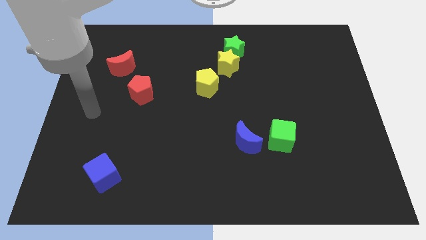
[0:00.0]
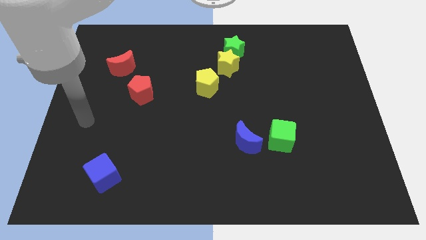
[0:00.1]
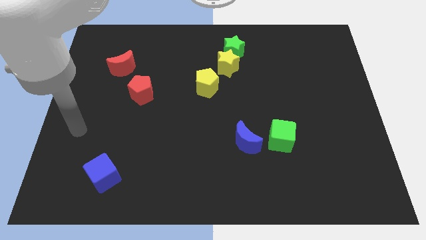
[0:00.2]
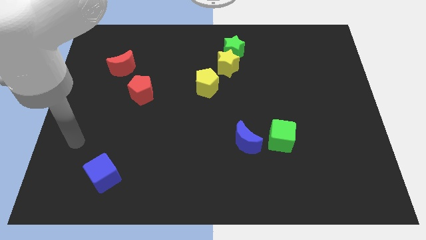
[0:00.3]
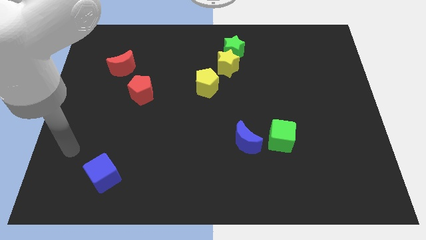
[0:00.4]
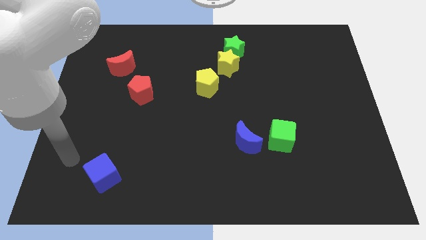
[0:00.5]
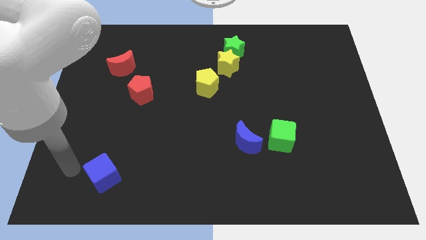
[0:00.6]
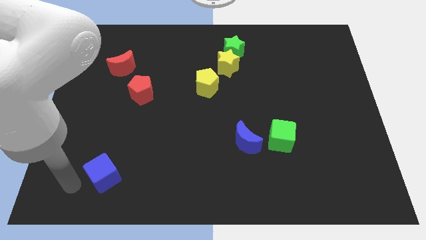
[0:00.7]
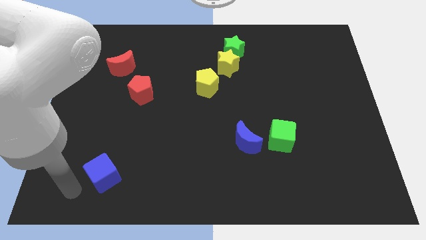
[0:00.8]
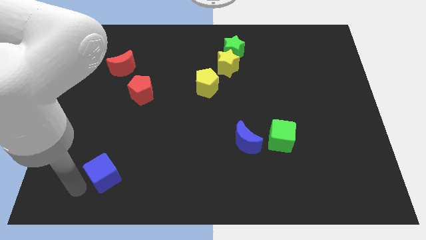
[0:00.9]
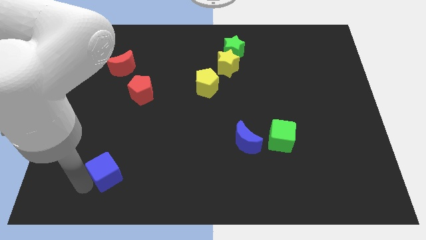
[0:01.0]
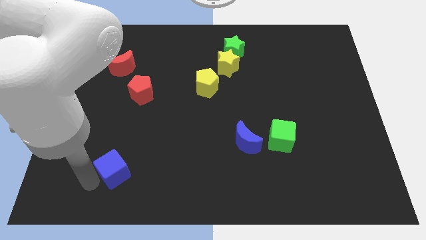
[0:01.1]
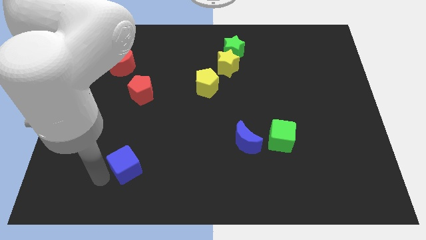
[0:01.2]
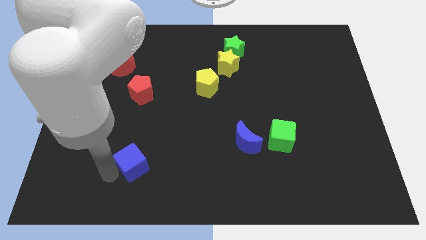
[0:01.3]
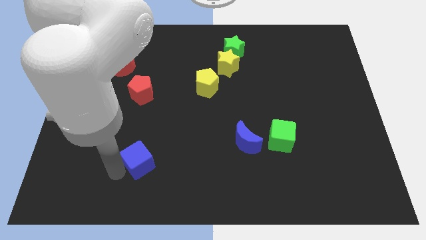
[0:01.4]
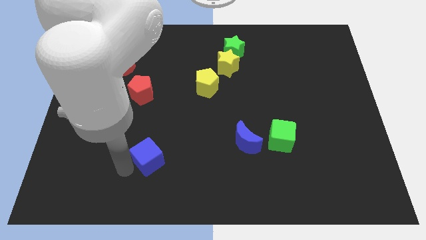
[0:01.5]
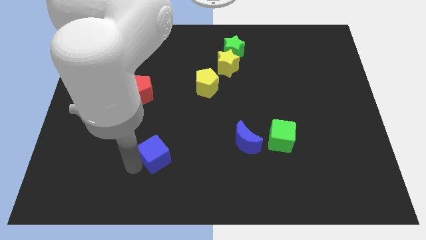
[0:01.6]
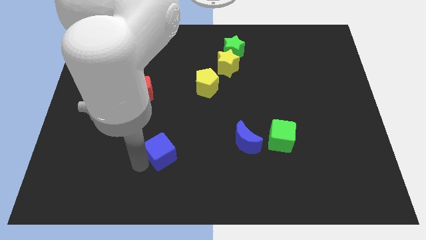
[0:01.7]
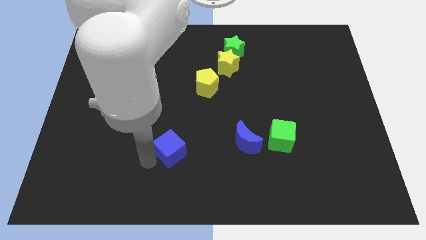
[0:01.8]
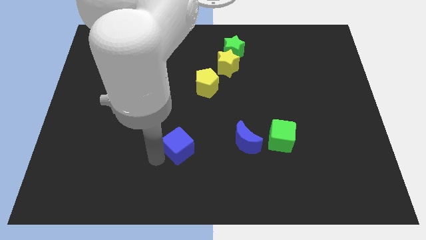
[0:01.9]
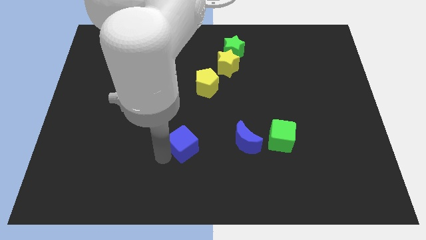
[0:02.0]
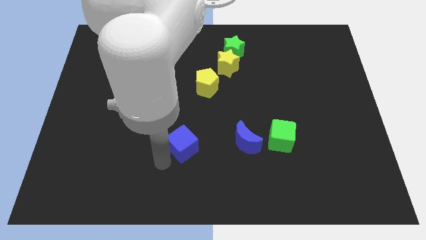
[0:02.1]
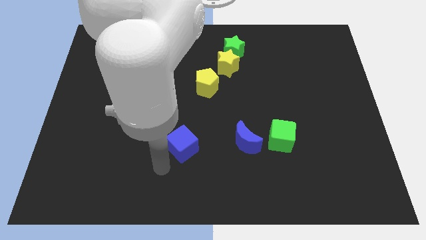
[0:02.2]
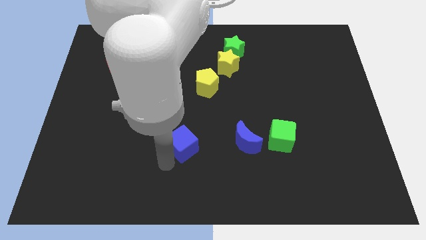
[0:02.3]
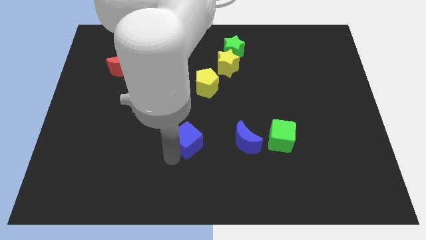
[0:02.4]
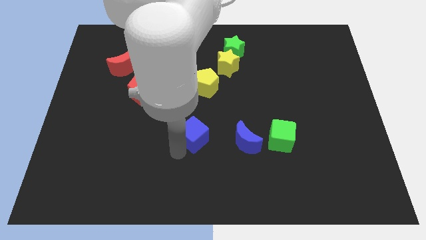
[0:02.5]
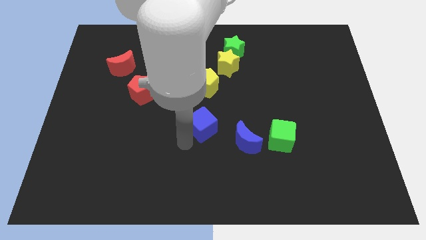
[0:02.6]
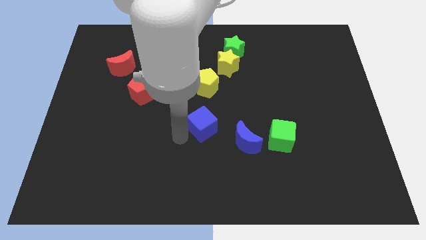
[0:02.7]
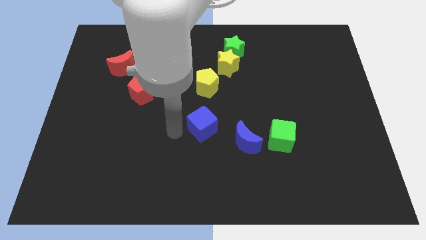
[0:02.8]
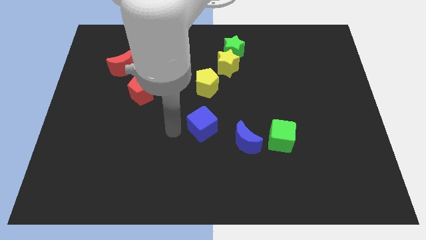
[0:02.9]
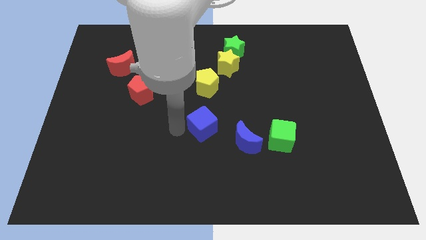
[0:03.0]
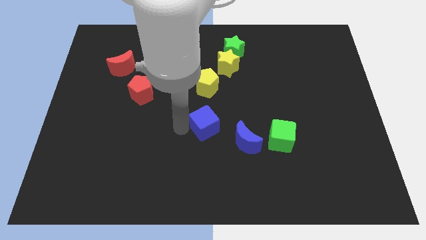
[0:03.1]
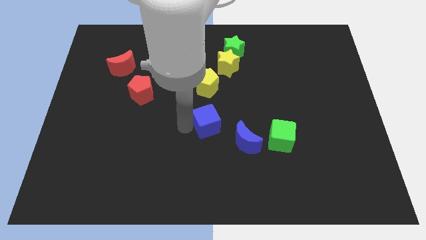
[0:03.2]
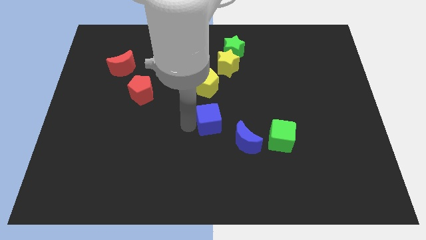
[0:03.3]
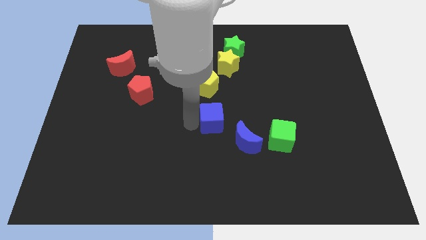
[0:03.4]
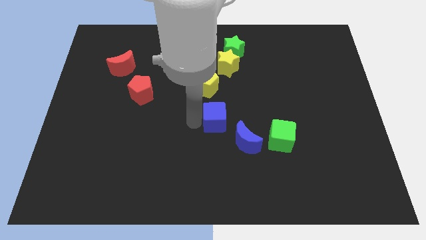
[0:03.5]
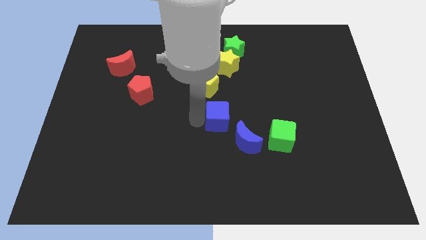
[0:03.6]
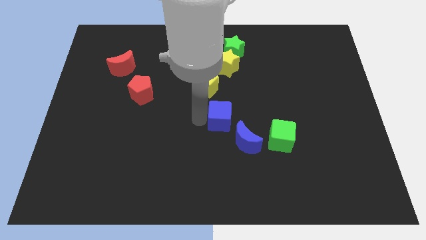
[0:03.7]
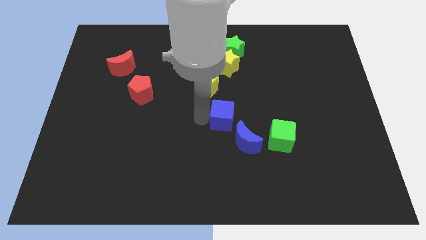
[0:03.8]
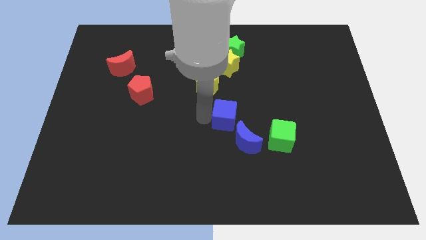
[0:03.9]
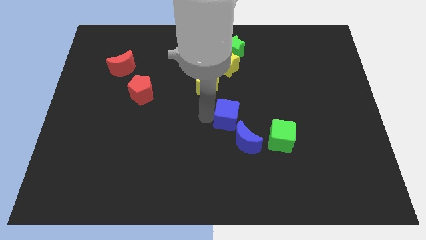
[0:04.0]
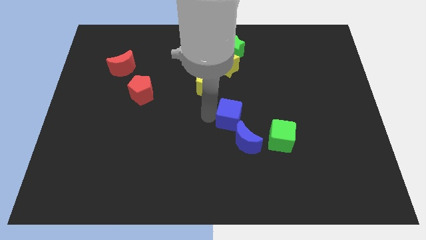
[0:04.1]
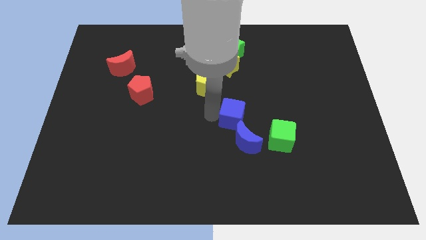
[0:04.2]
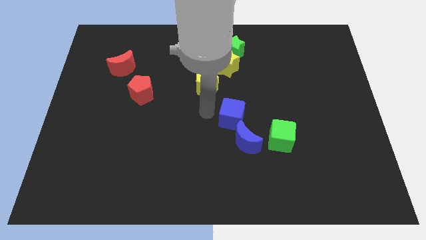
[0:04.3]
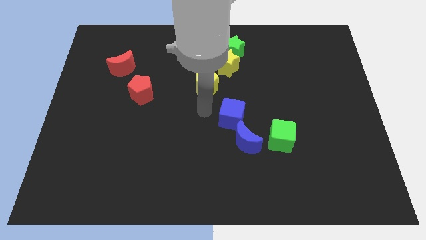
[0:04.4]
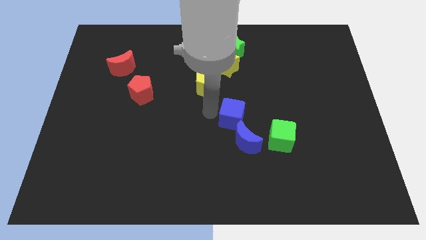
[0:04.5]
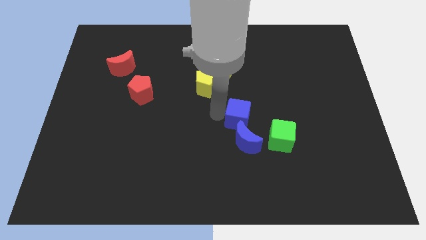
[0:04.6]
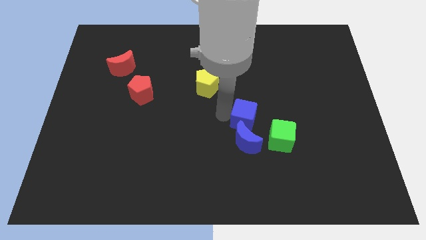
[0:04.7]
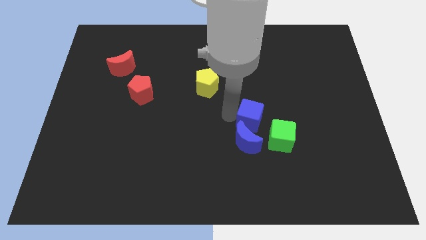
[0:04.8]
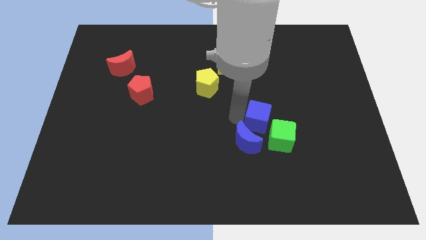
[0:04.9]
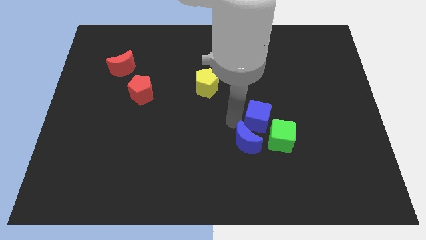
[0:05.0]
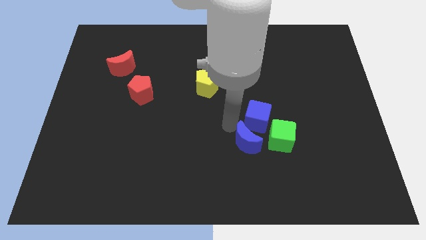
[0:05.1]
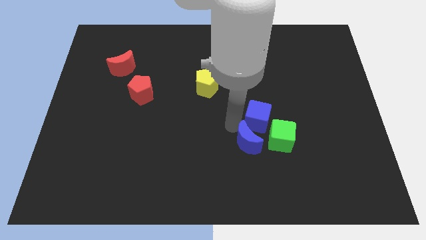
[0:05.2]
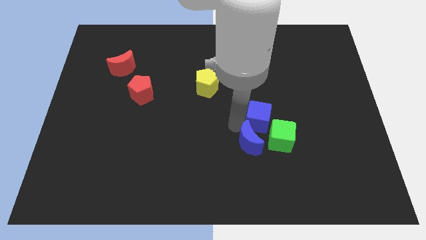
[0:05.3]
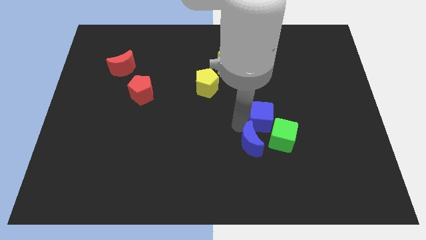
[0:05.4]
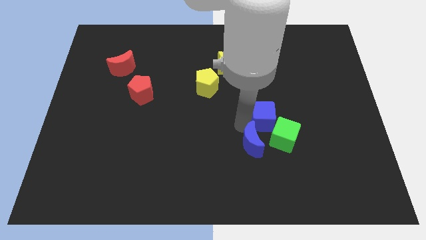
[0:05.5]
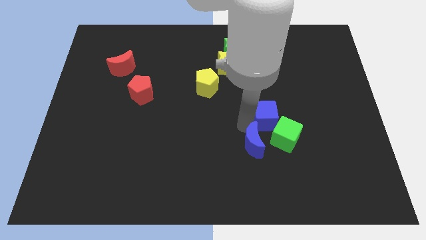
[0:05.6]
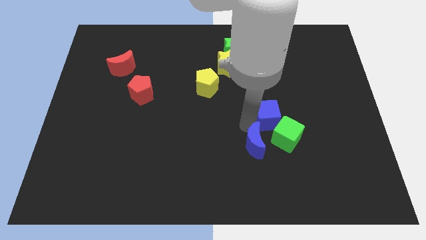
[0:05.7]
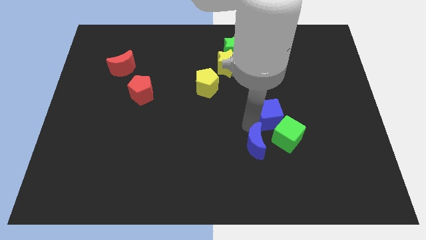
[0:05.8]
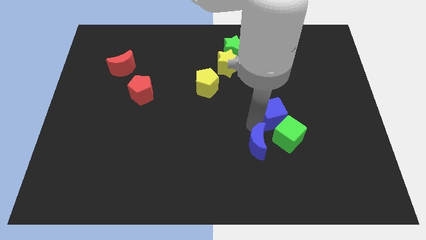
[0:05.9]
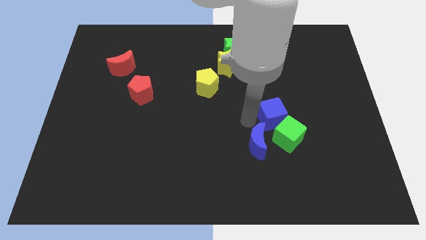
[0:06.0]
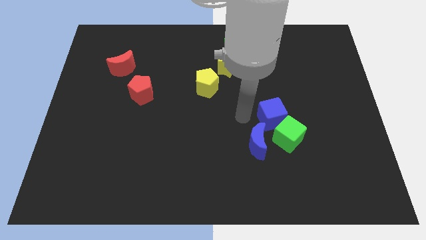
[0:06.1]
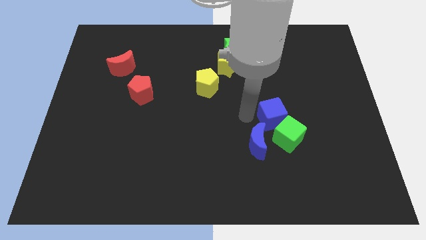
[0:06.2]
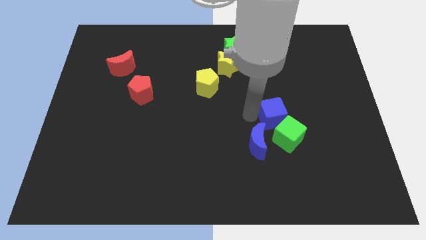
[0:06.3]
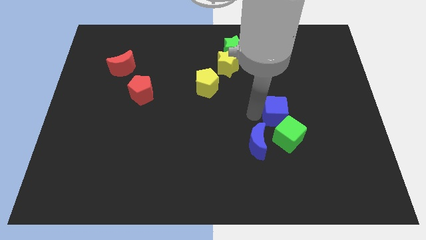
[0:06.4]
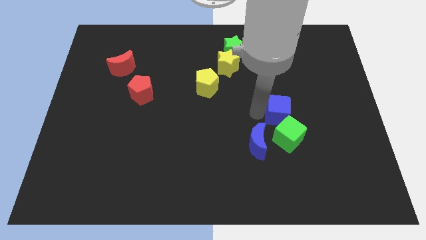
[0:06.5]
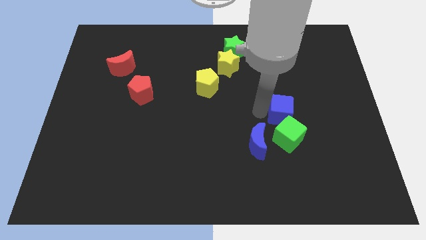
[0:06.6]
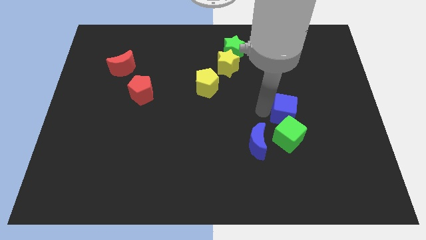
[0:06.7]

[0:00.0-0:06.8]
slide the blue cube to the top right of the green cube

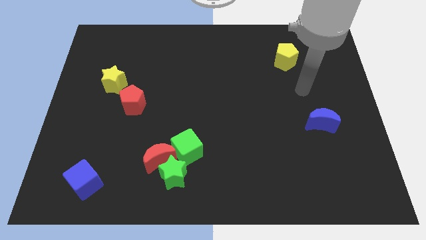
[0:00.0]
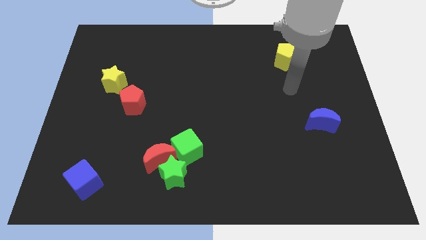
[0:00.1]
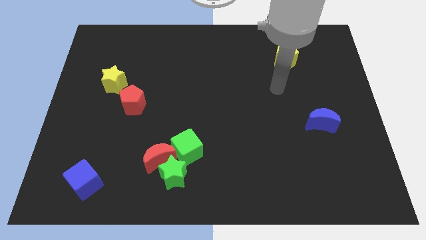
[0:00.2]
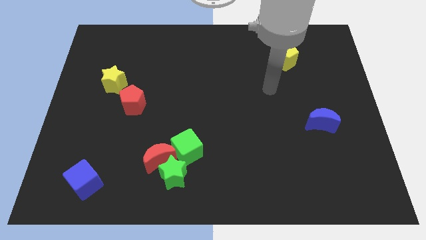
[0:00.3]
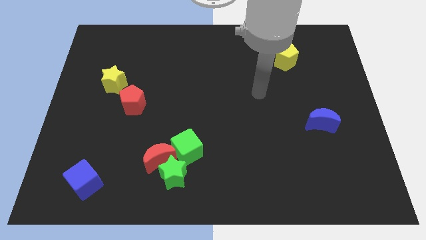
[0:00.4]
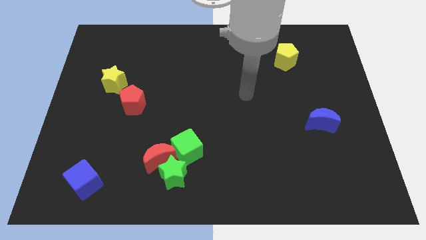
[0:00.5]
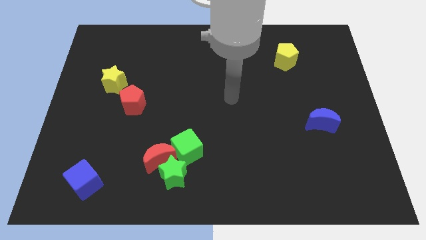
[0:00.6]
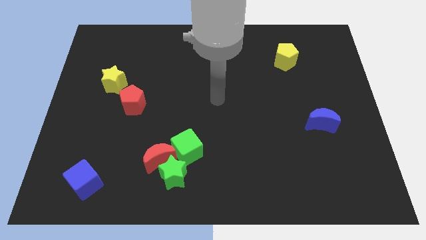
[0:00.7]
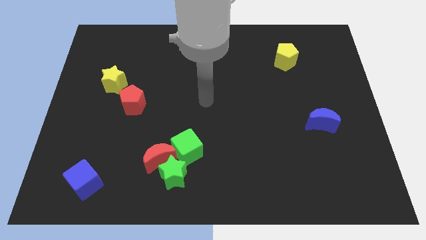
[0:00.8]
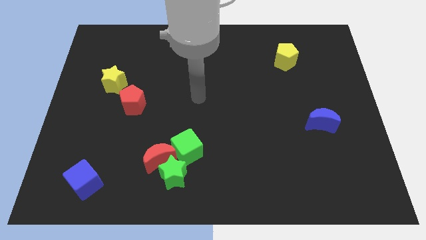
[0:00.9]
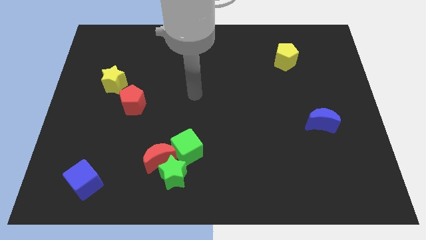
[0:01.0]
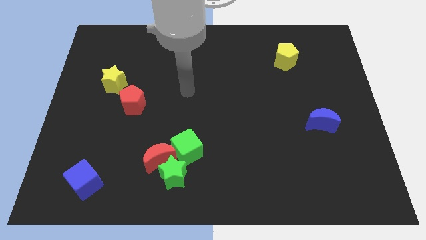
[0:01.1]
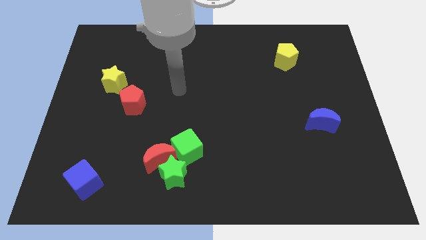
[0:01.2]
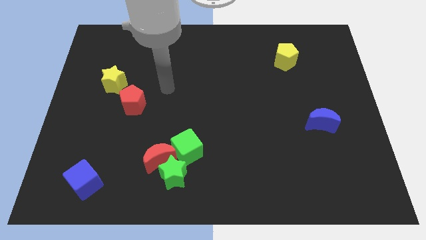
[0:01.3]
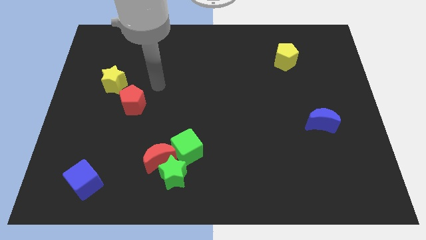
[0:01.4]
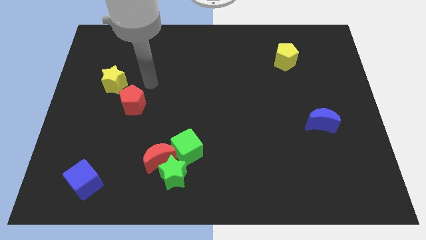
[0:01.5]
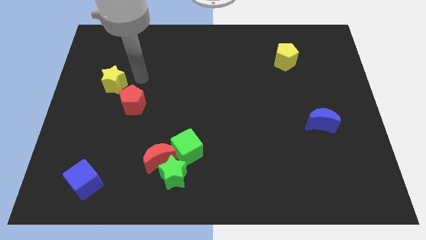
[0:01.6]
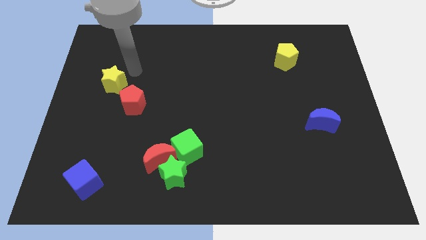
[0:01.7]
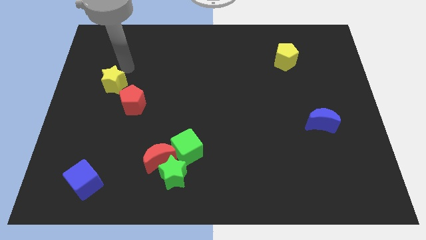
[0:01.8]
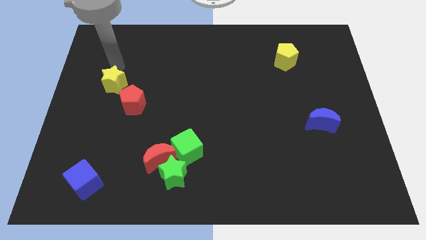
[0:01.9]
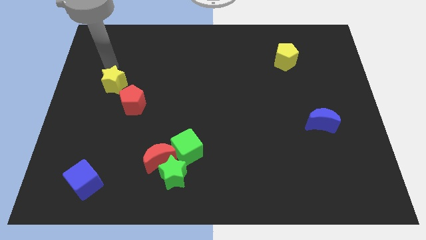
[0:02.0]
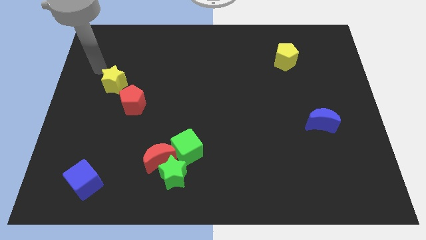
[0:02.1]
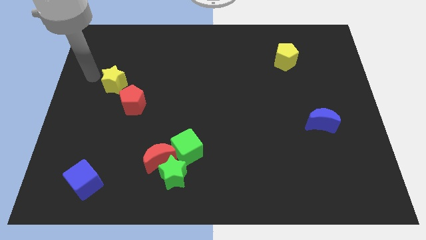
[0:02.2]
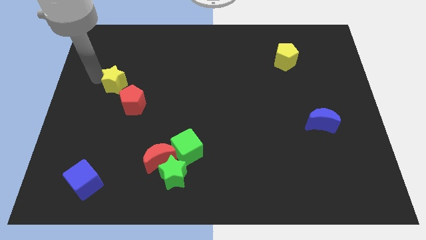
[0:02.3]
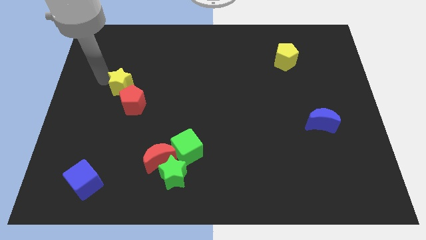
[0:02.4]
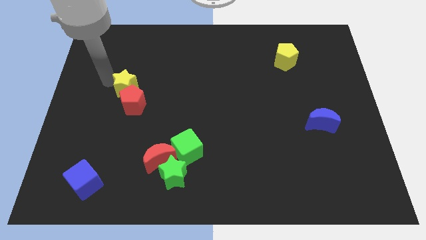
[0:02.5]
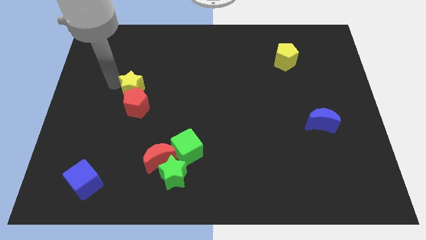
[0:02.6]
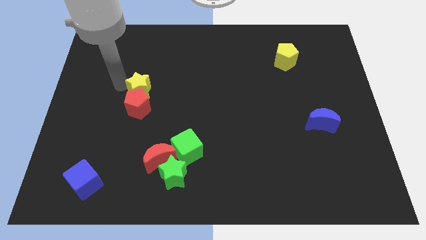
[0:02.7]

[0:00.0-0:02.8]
put the yellow star diagonally up and to the right of the red pentagon
